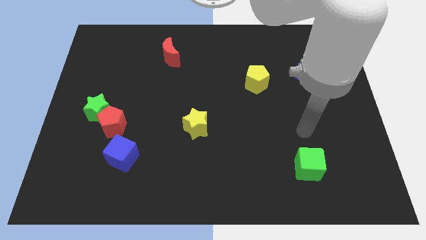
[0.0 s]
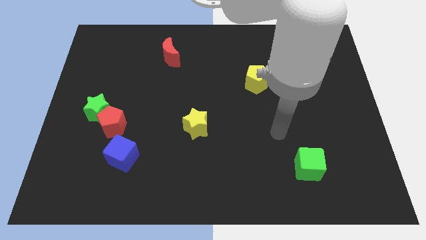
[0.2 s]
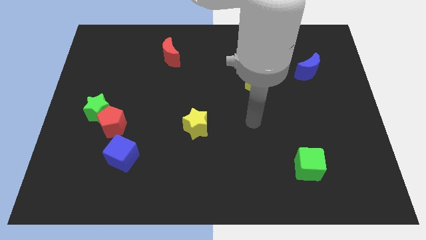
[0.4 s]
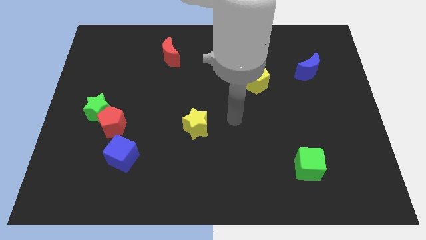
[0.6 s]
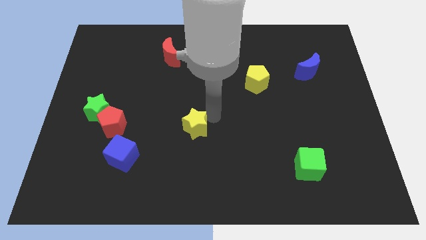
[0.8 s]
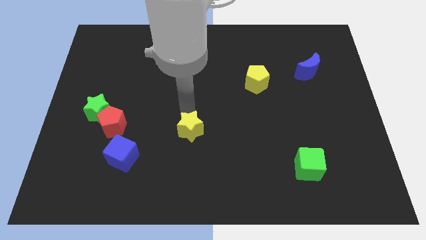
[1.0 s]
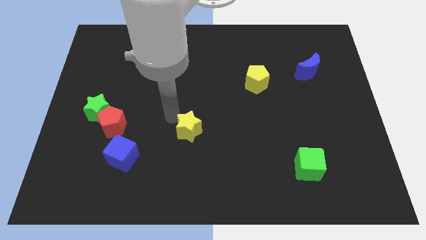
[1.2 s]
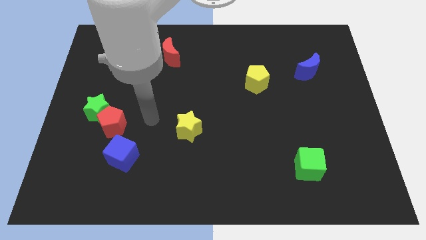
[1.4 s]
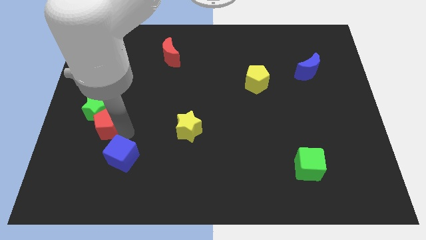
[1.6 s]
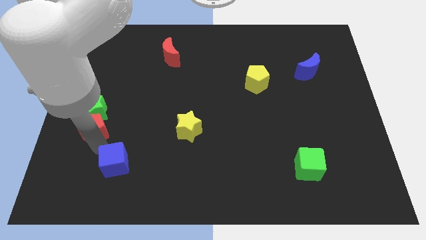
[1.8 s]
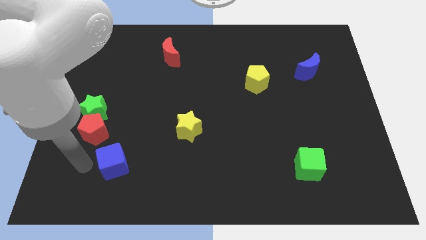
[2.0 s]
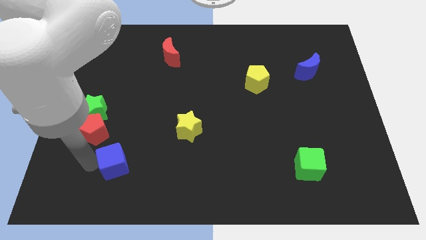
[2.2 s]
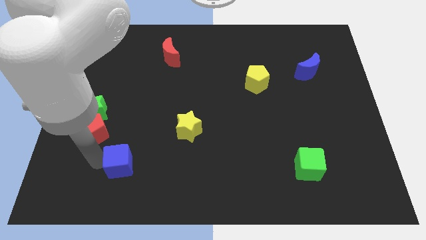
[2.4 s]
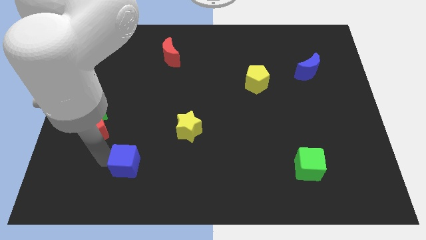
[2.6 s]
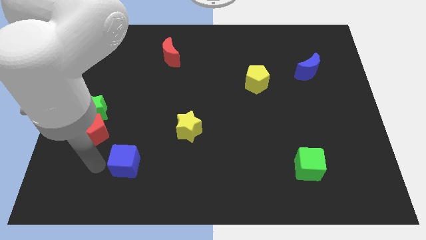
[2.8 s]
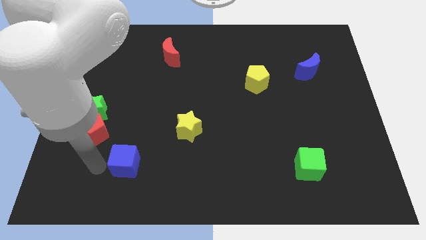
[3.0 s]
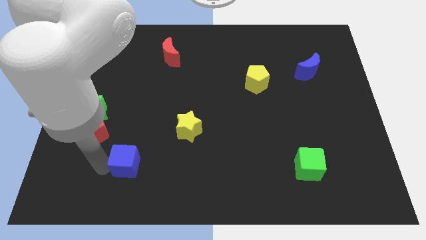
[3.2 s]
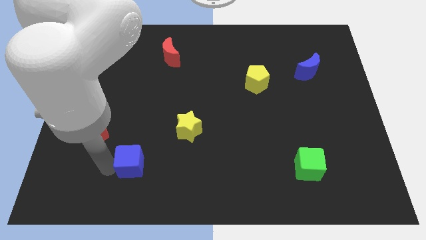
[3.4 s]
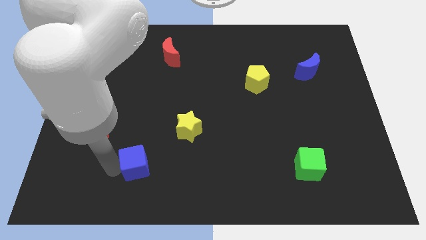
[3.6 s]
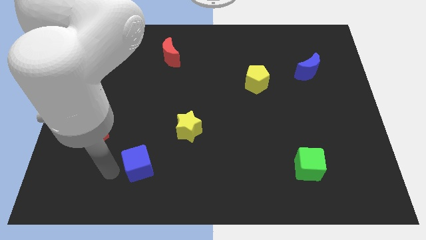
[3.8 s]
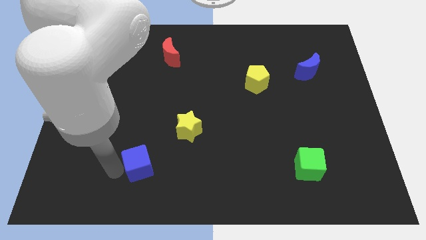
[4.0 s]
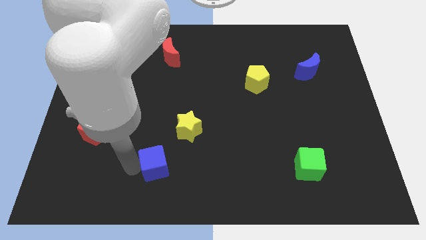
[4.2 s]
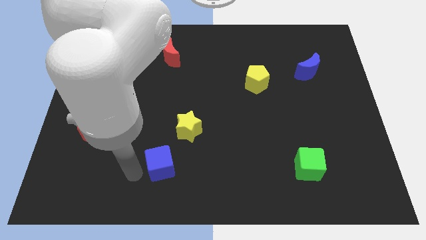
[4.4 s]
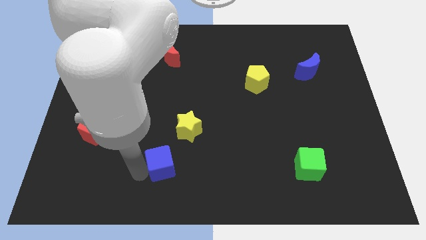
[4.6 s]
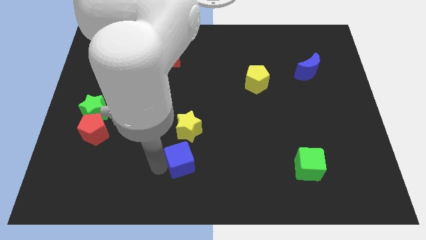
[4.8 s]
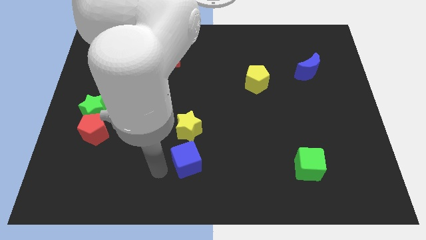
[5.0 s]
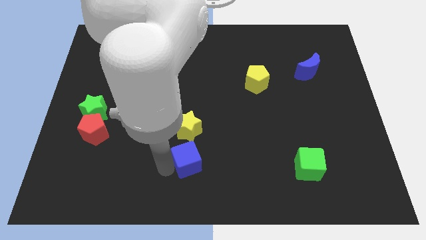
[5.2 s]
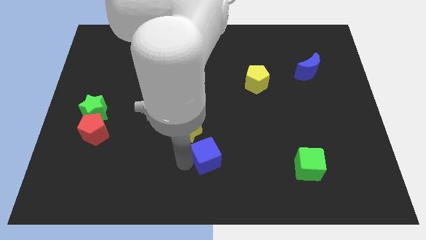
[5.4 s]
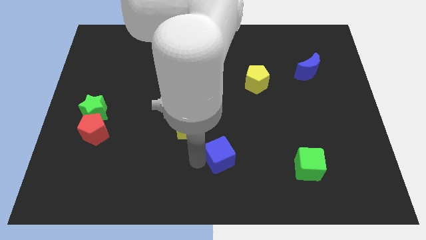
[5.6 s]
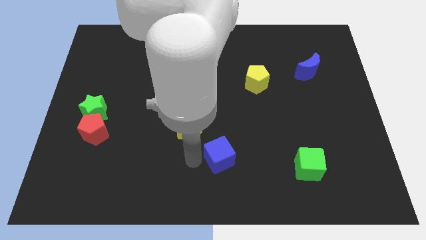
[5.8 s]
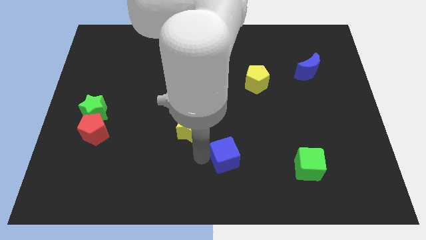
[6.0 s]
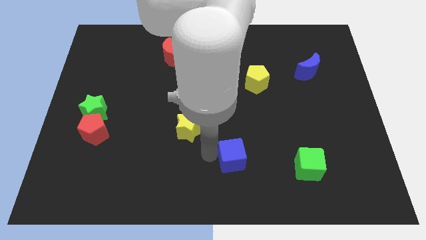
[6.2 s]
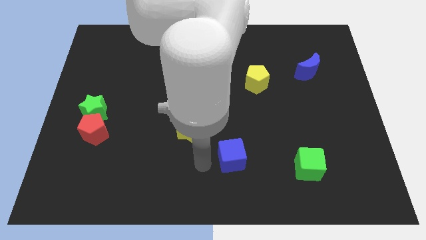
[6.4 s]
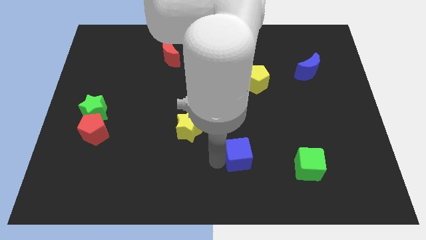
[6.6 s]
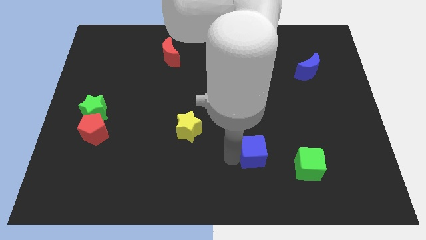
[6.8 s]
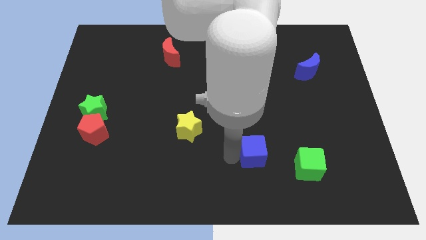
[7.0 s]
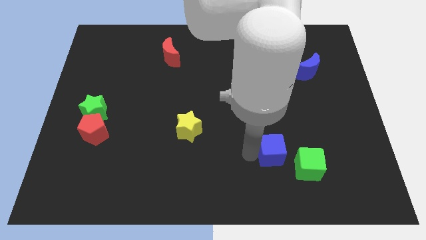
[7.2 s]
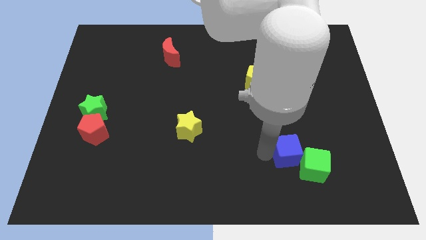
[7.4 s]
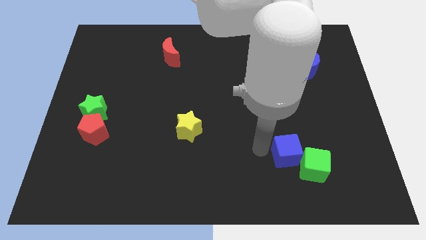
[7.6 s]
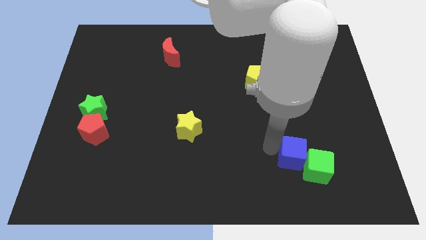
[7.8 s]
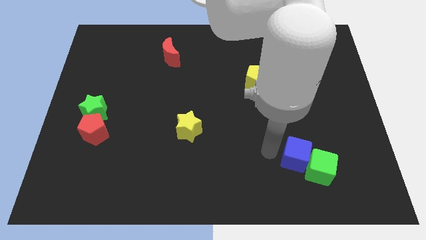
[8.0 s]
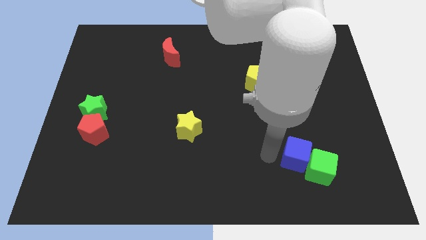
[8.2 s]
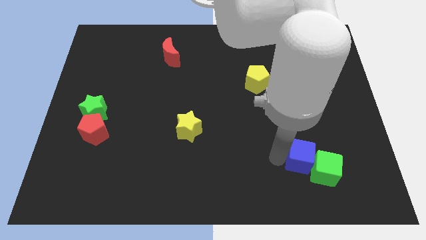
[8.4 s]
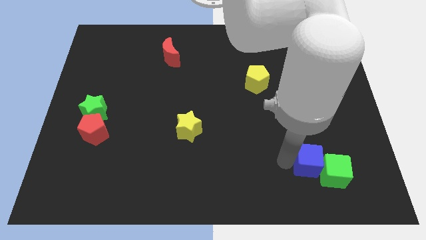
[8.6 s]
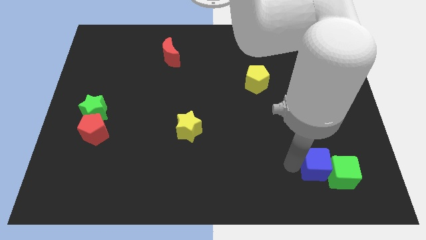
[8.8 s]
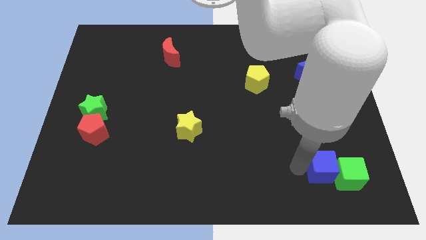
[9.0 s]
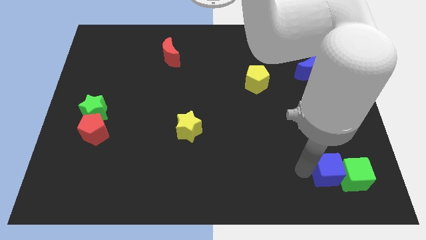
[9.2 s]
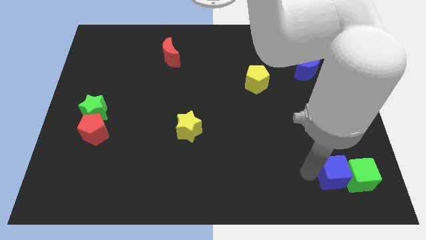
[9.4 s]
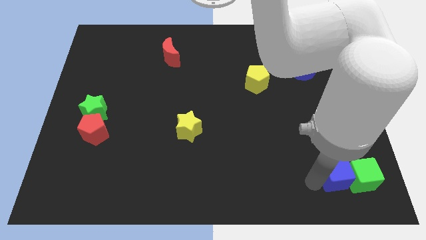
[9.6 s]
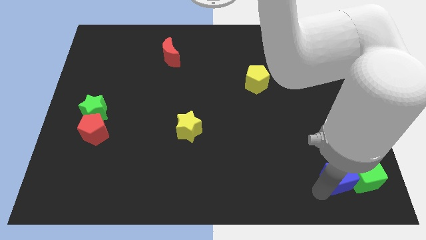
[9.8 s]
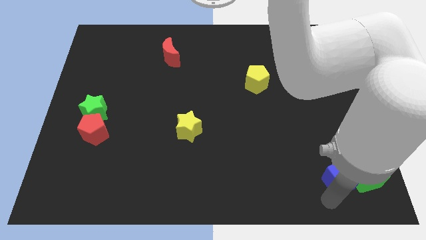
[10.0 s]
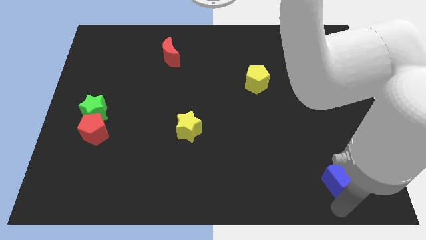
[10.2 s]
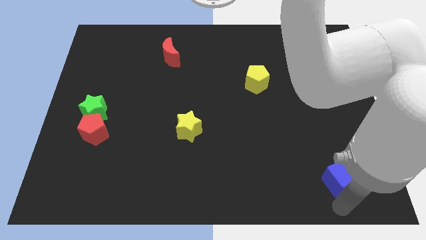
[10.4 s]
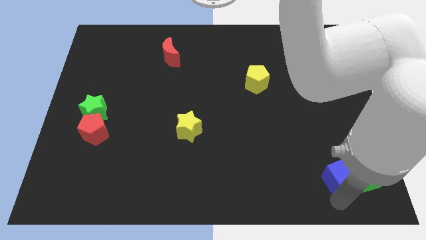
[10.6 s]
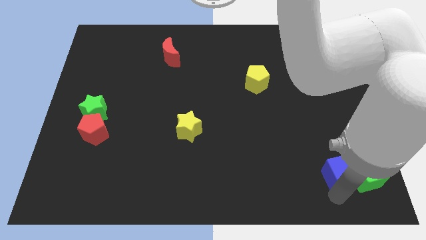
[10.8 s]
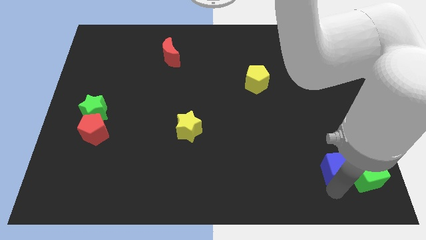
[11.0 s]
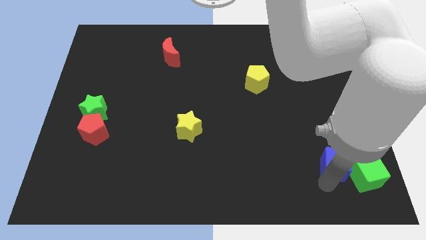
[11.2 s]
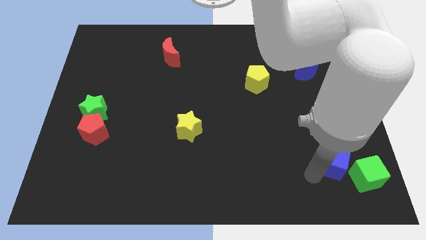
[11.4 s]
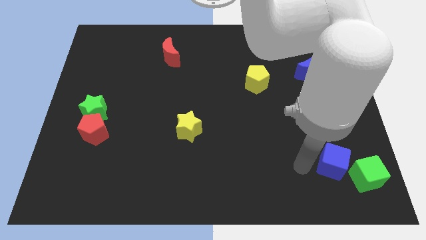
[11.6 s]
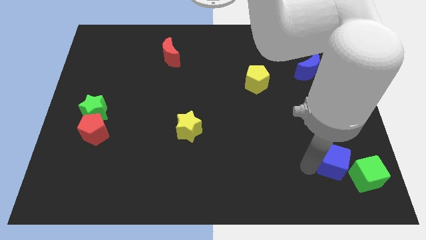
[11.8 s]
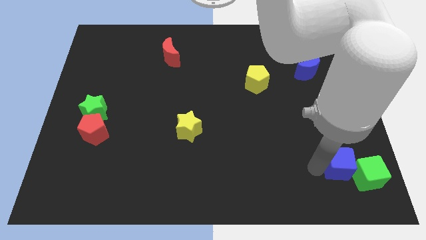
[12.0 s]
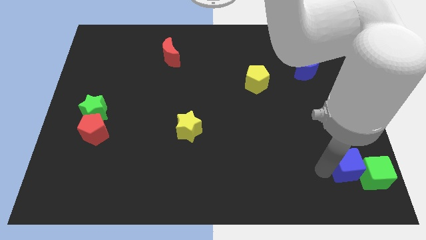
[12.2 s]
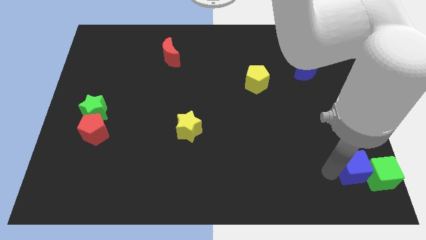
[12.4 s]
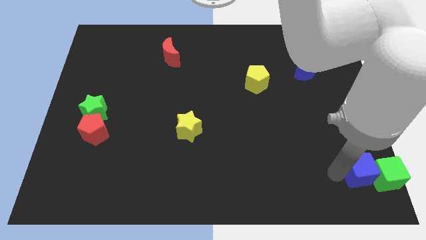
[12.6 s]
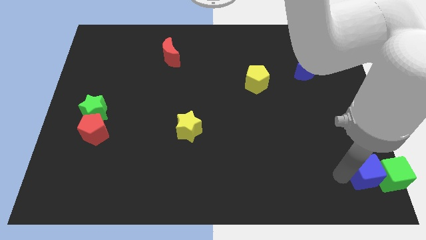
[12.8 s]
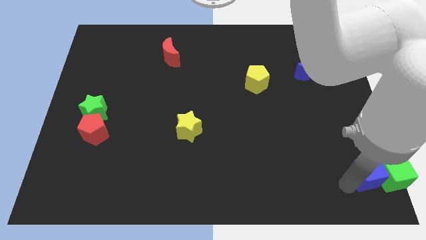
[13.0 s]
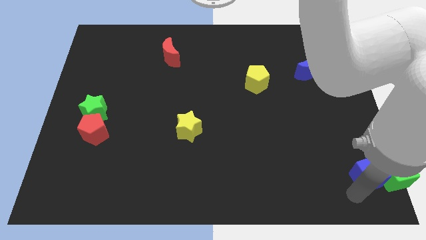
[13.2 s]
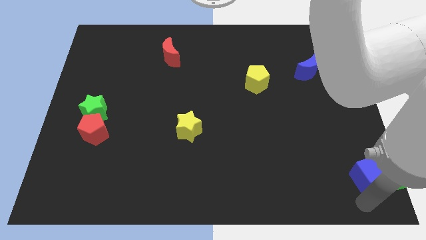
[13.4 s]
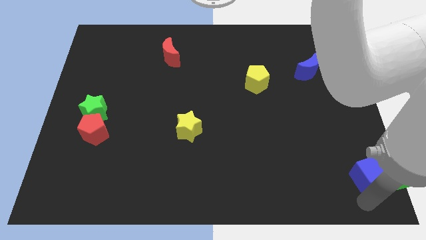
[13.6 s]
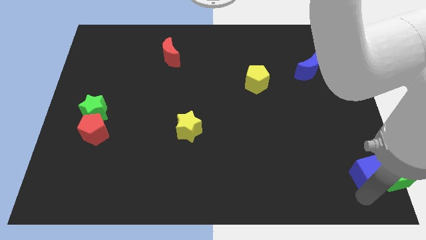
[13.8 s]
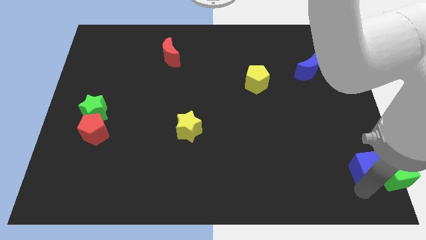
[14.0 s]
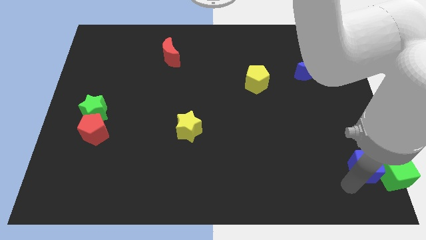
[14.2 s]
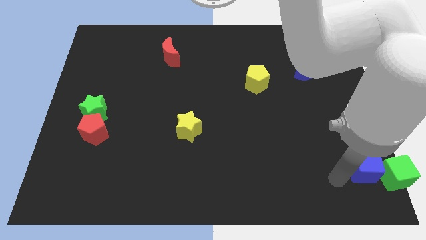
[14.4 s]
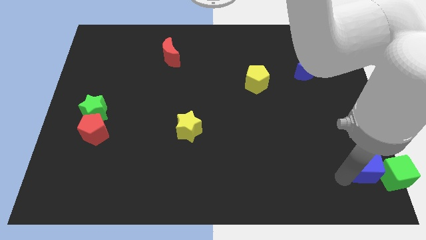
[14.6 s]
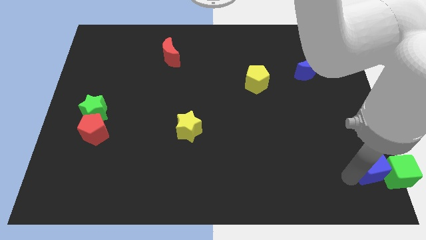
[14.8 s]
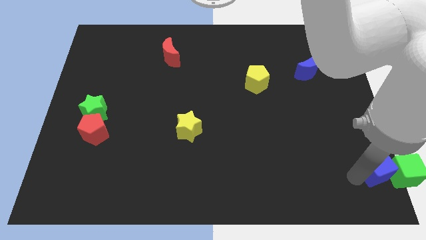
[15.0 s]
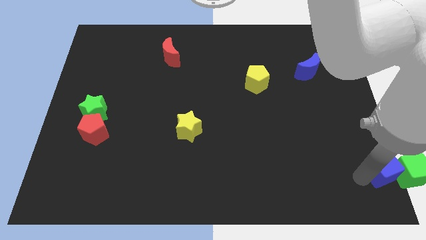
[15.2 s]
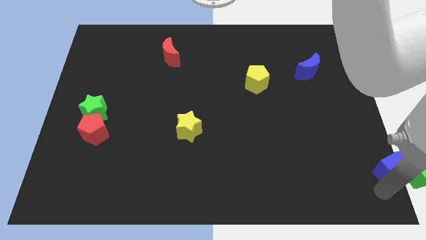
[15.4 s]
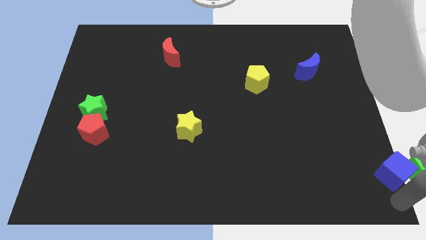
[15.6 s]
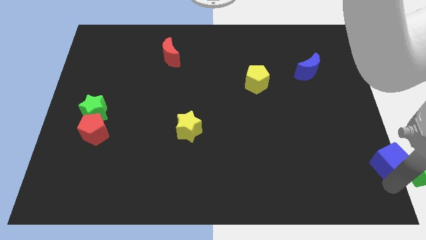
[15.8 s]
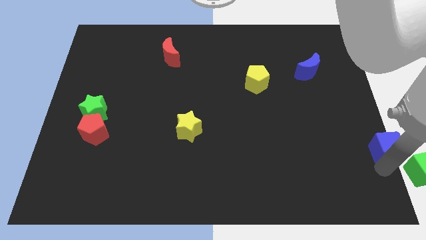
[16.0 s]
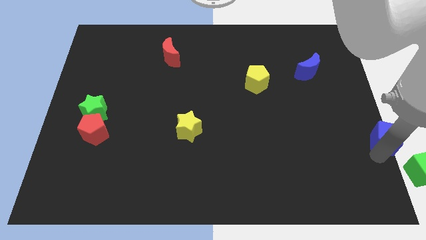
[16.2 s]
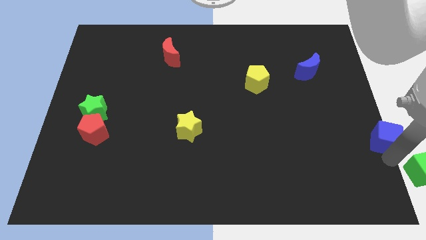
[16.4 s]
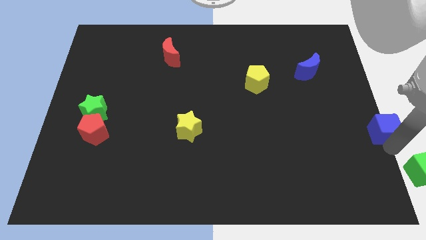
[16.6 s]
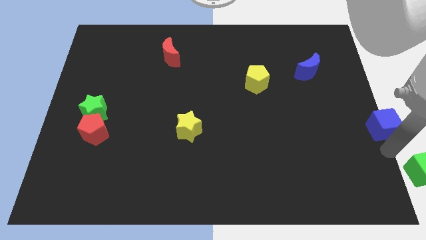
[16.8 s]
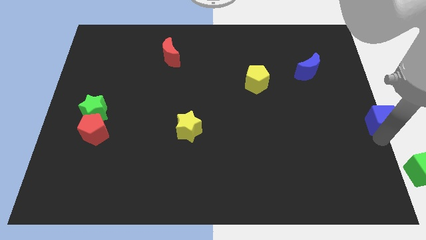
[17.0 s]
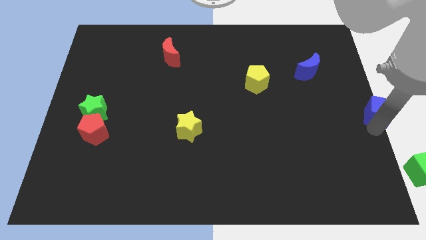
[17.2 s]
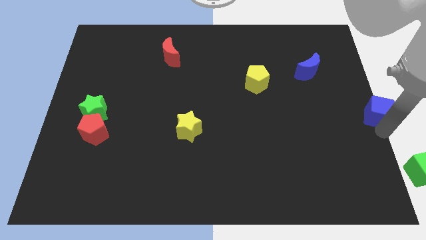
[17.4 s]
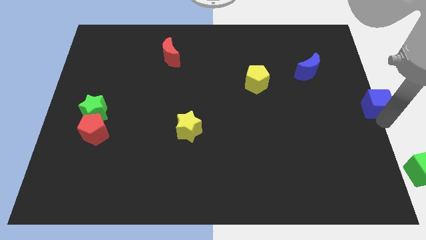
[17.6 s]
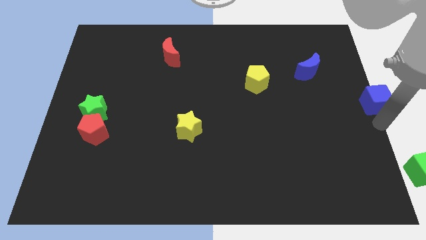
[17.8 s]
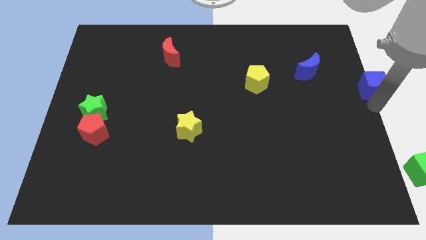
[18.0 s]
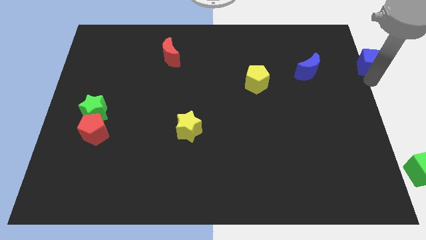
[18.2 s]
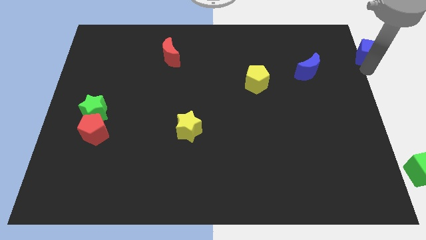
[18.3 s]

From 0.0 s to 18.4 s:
put the blue cube to the top right corner
